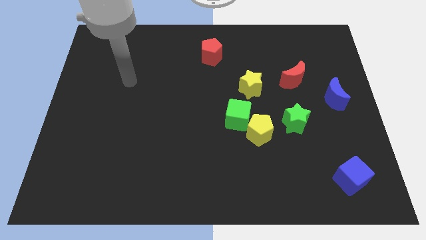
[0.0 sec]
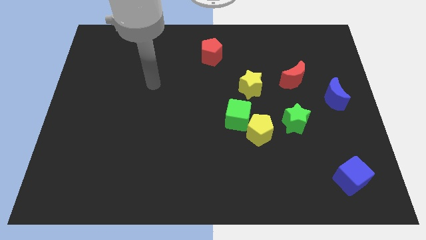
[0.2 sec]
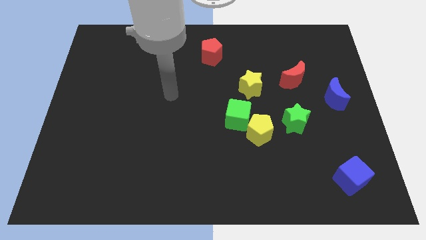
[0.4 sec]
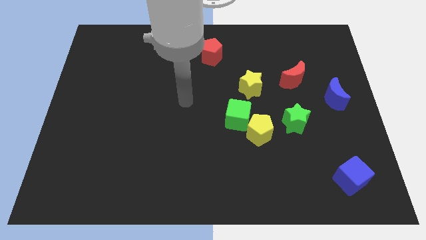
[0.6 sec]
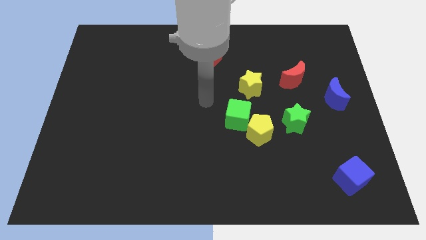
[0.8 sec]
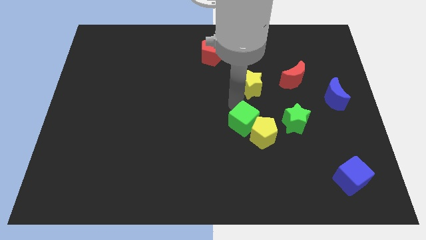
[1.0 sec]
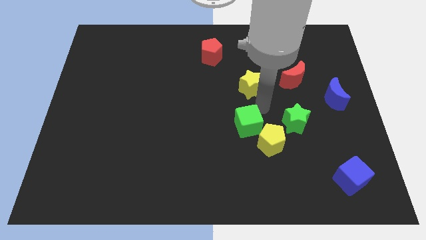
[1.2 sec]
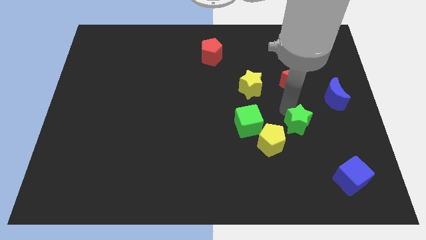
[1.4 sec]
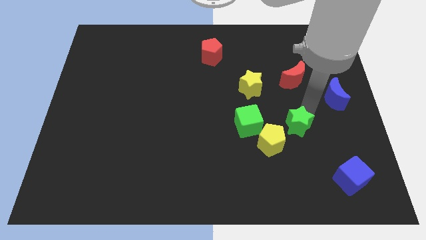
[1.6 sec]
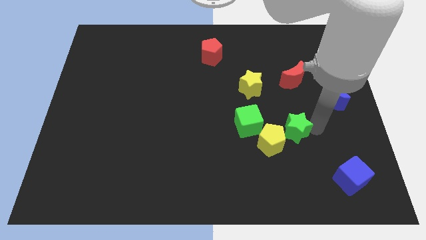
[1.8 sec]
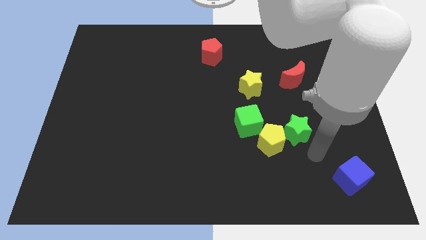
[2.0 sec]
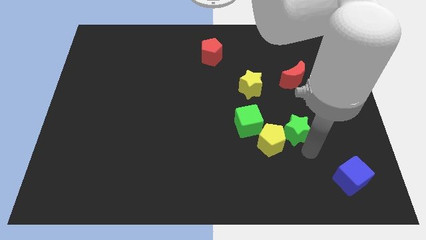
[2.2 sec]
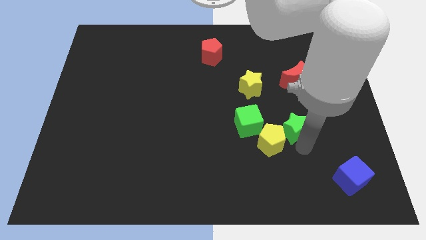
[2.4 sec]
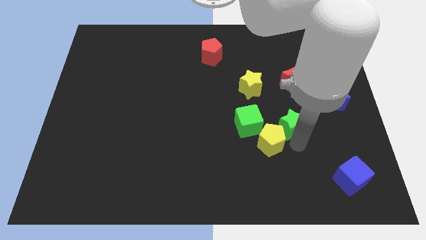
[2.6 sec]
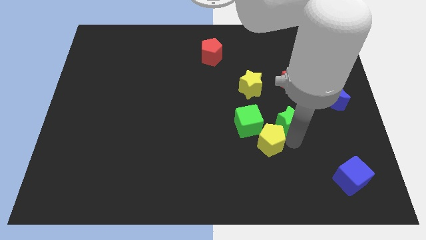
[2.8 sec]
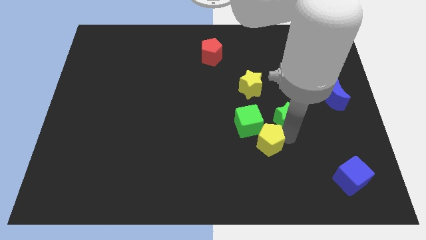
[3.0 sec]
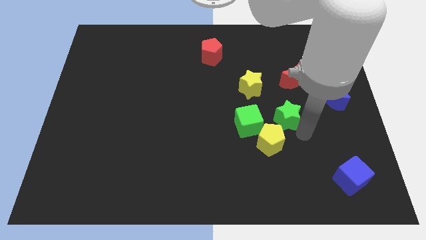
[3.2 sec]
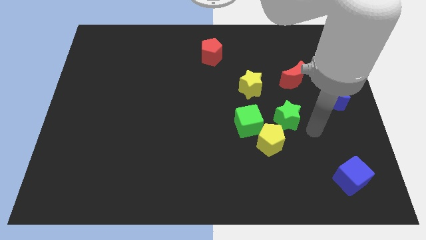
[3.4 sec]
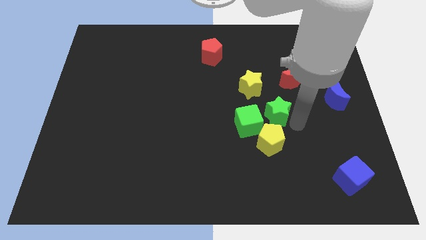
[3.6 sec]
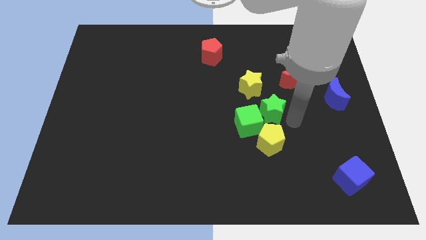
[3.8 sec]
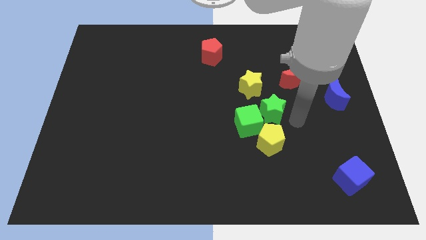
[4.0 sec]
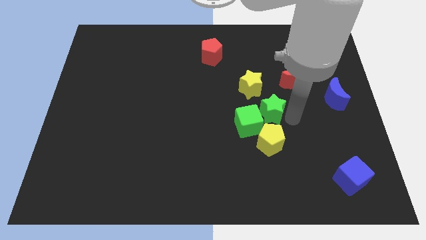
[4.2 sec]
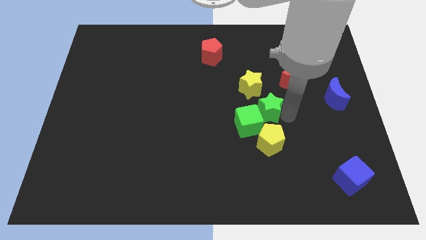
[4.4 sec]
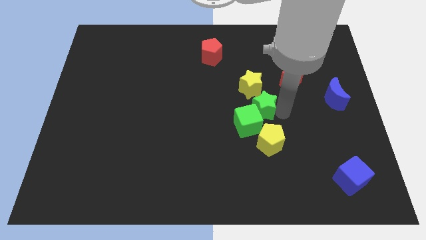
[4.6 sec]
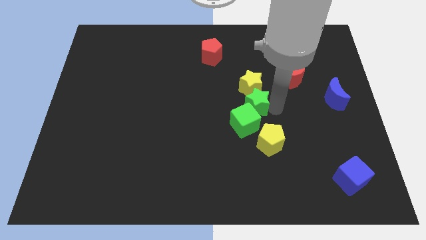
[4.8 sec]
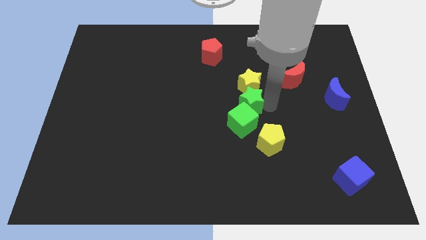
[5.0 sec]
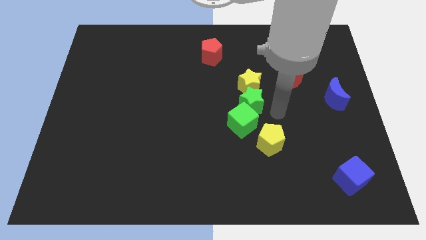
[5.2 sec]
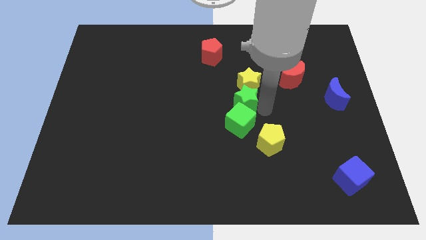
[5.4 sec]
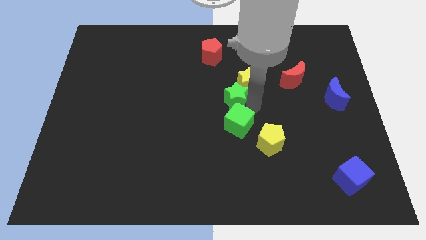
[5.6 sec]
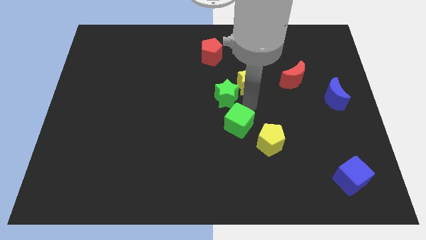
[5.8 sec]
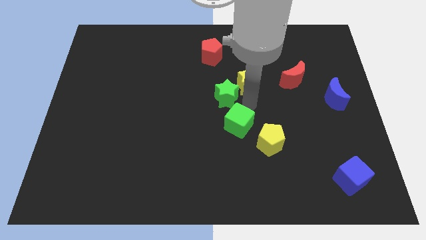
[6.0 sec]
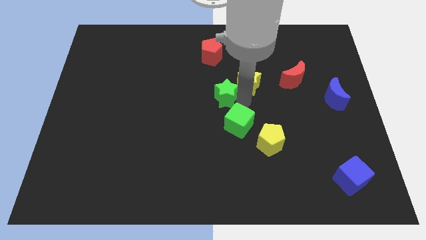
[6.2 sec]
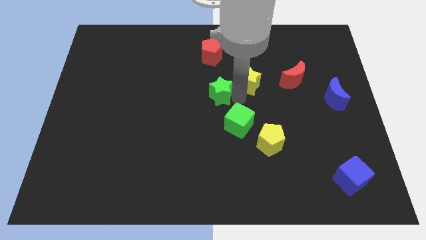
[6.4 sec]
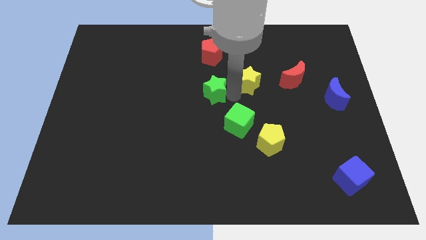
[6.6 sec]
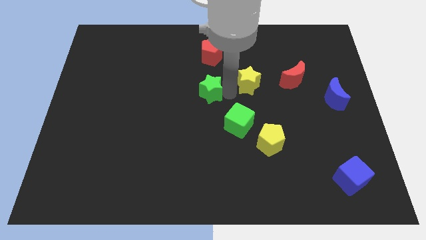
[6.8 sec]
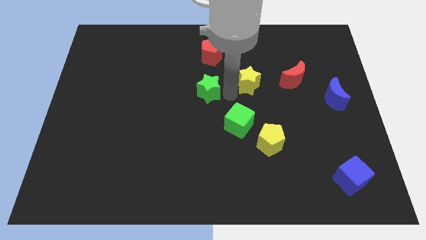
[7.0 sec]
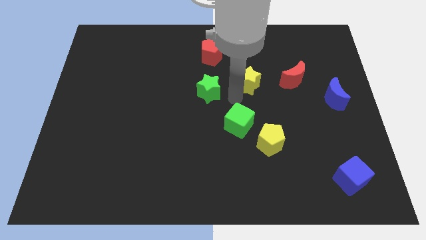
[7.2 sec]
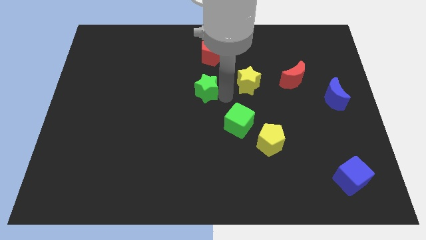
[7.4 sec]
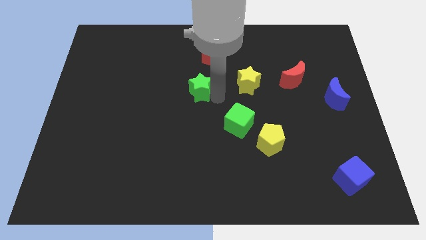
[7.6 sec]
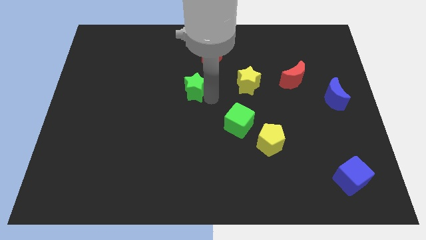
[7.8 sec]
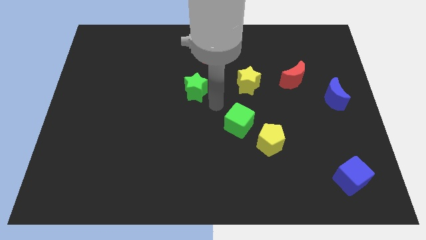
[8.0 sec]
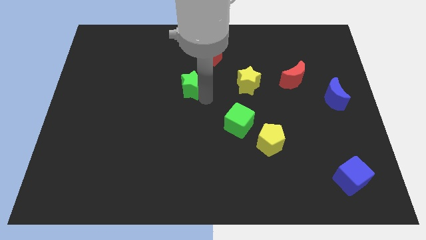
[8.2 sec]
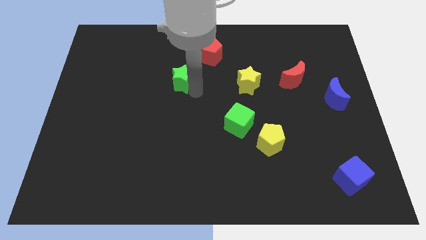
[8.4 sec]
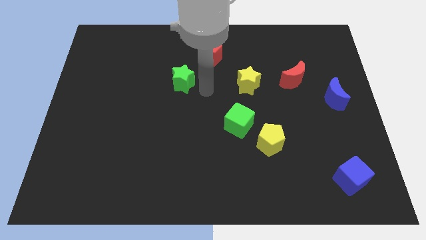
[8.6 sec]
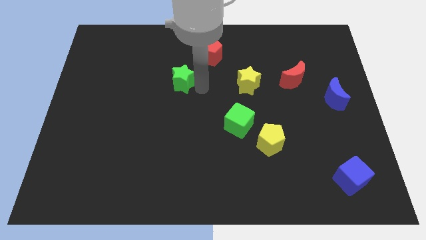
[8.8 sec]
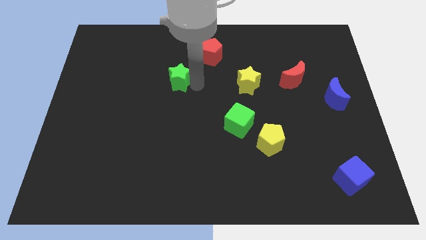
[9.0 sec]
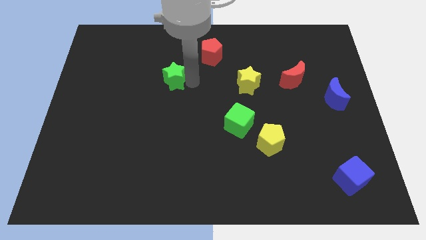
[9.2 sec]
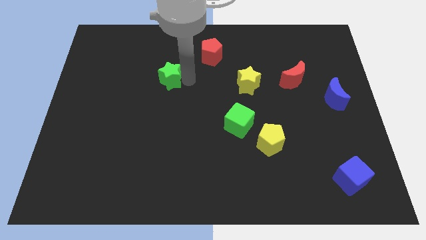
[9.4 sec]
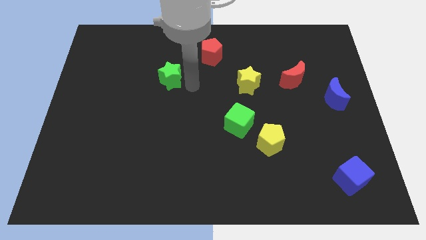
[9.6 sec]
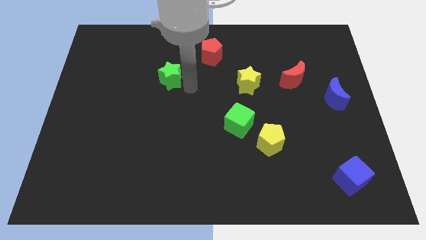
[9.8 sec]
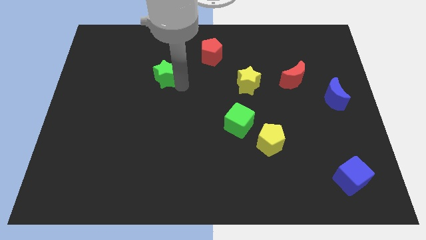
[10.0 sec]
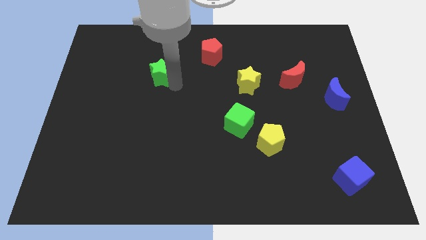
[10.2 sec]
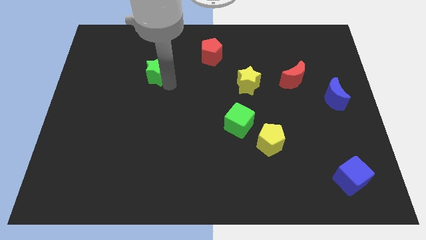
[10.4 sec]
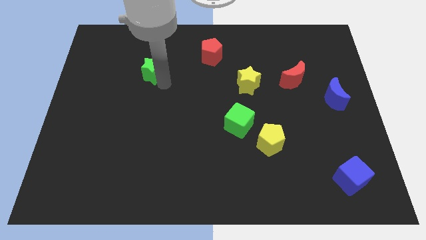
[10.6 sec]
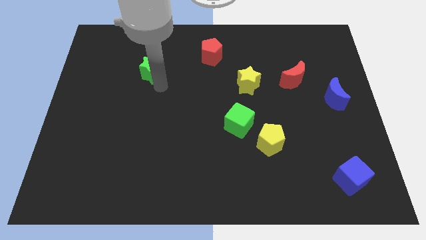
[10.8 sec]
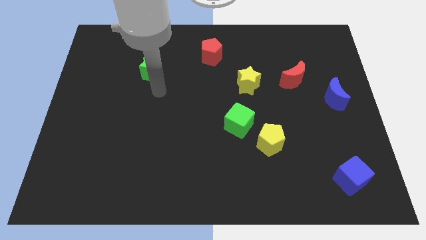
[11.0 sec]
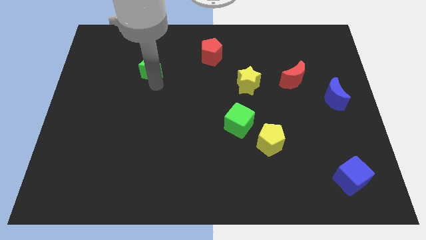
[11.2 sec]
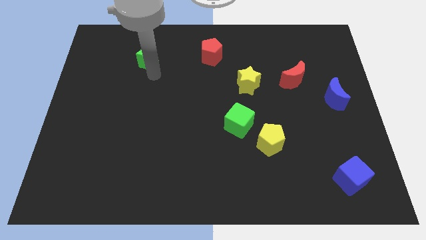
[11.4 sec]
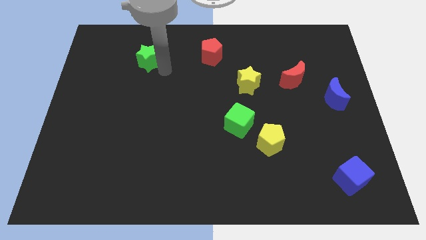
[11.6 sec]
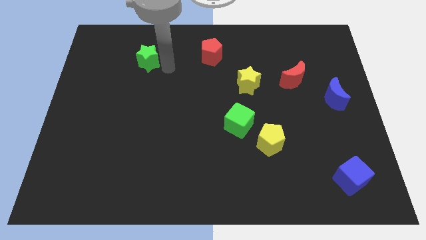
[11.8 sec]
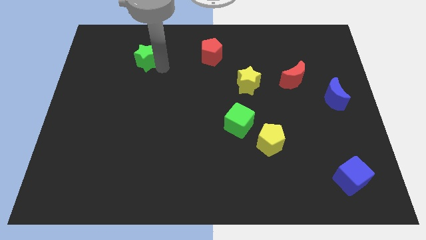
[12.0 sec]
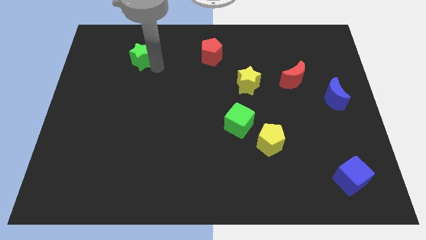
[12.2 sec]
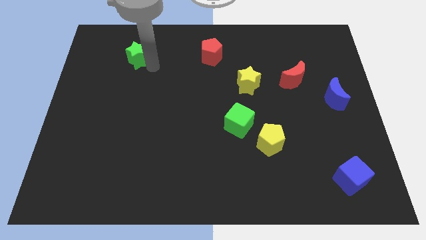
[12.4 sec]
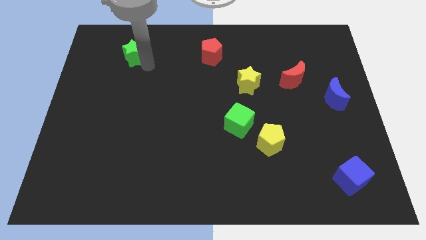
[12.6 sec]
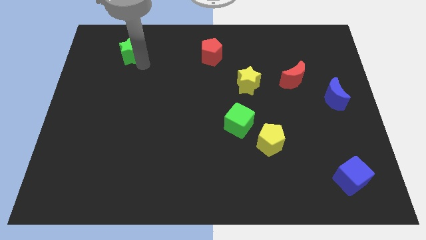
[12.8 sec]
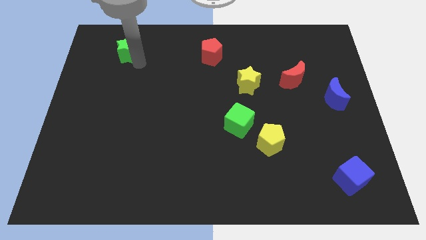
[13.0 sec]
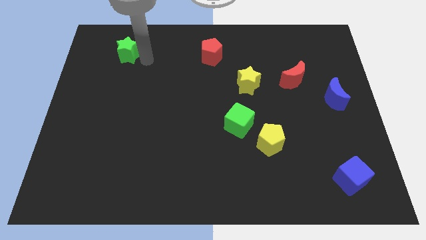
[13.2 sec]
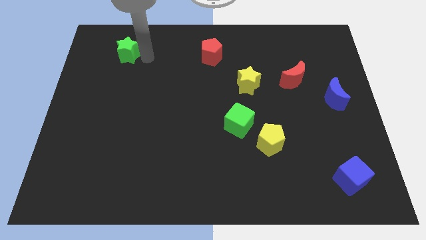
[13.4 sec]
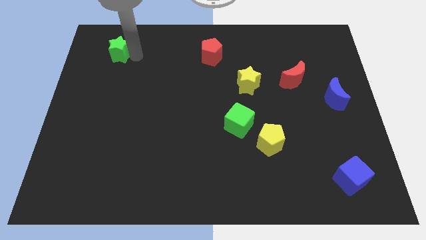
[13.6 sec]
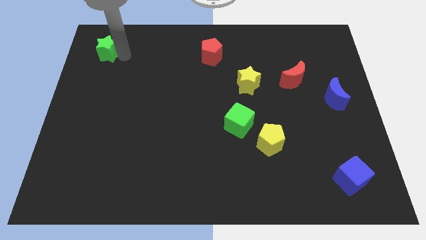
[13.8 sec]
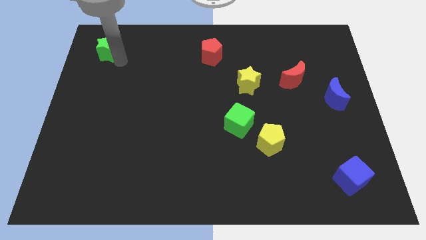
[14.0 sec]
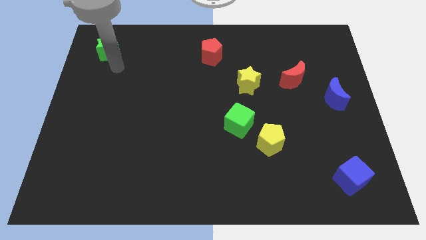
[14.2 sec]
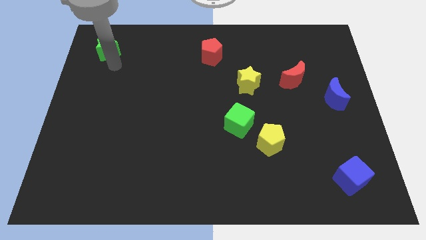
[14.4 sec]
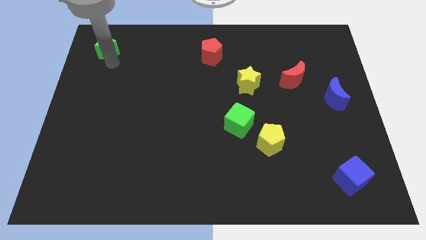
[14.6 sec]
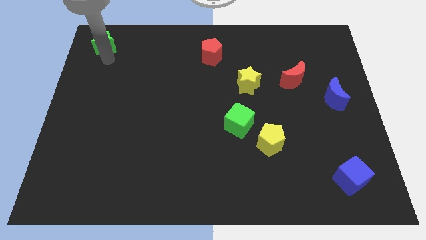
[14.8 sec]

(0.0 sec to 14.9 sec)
slide the green star to the top left of the board
